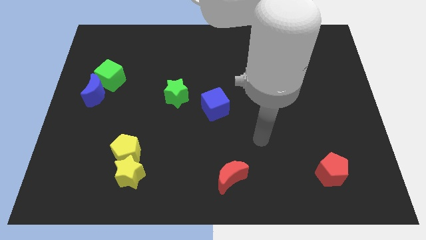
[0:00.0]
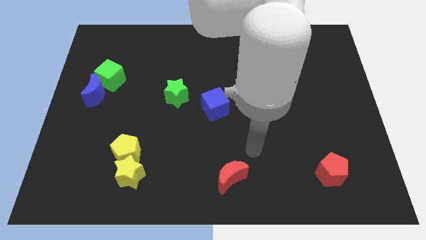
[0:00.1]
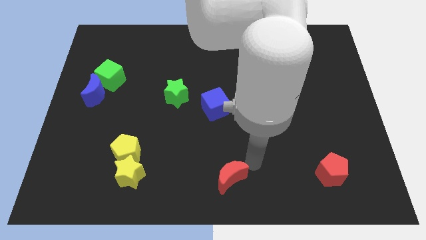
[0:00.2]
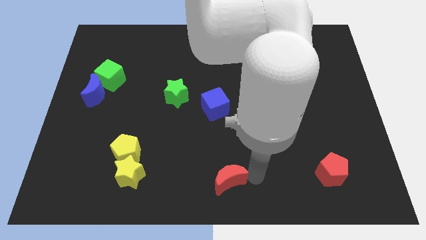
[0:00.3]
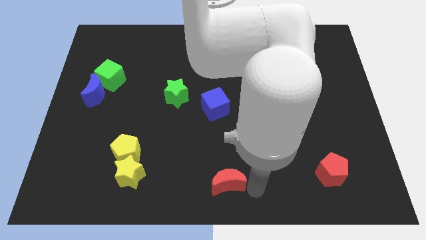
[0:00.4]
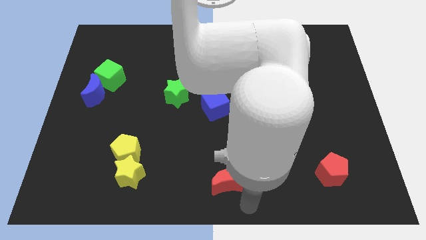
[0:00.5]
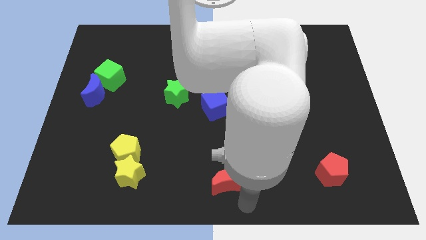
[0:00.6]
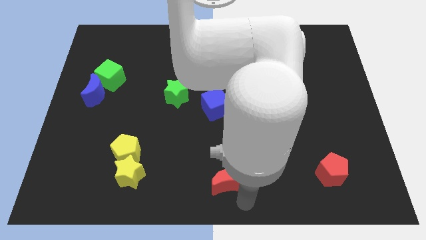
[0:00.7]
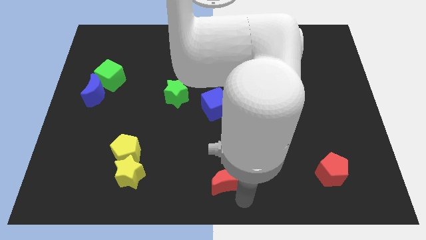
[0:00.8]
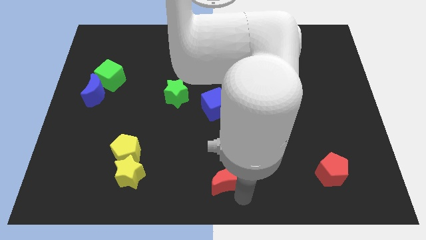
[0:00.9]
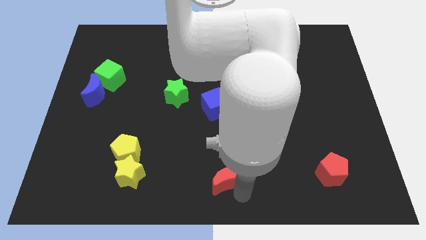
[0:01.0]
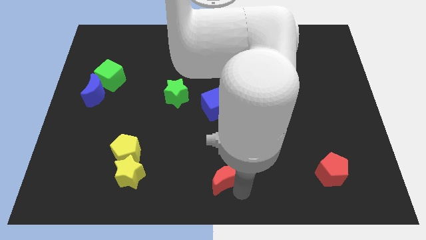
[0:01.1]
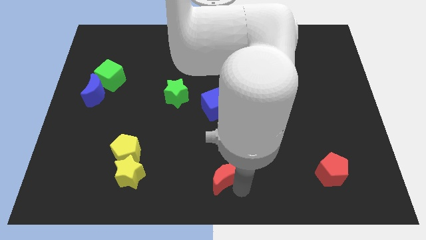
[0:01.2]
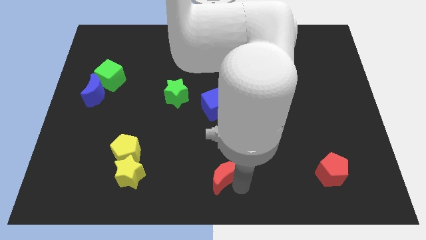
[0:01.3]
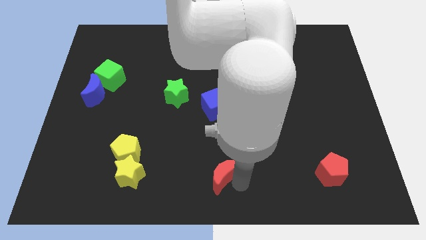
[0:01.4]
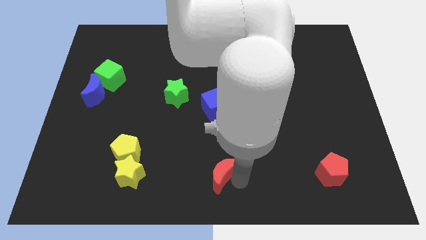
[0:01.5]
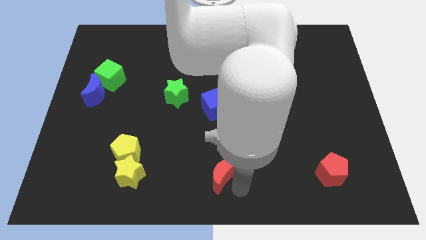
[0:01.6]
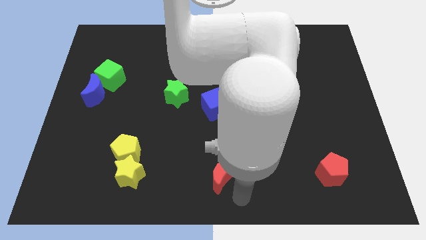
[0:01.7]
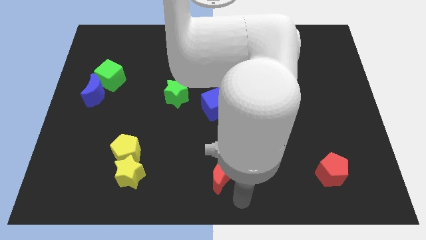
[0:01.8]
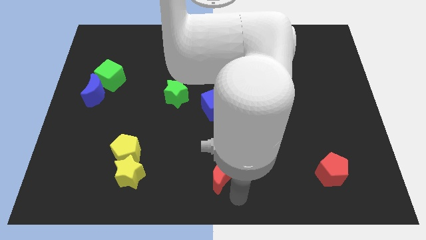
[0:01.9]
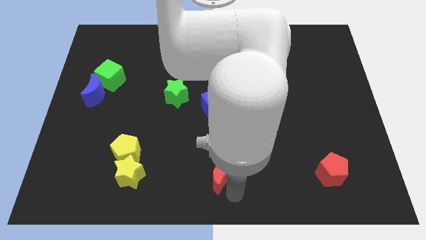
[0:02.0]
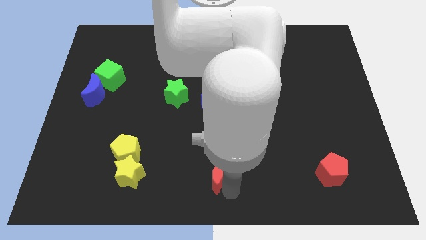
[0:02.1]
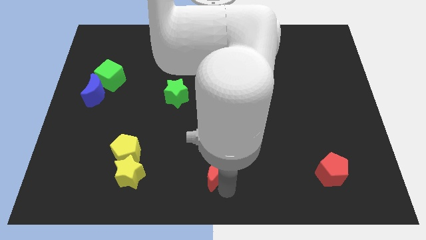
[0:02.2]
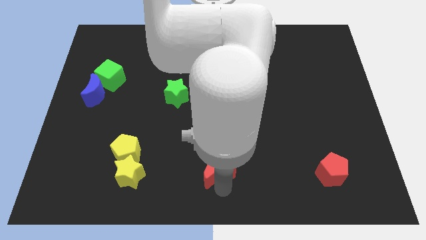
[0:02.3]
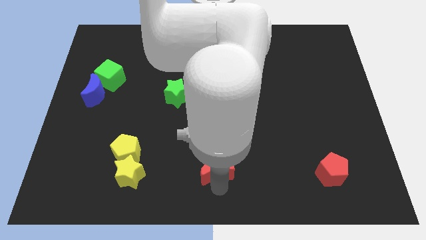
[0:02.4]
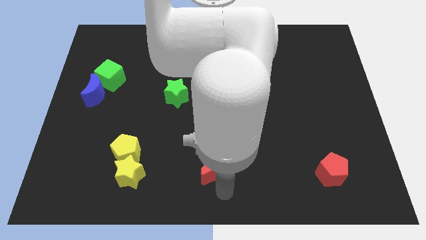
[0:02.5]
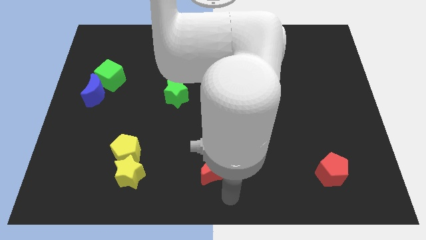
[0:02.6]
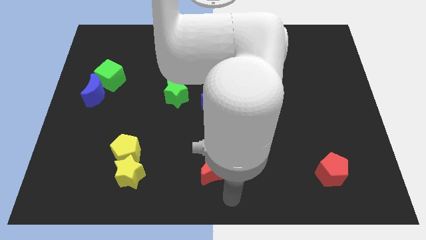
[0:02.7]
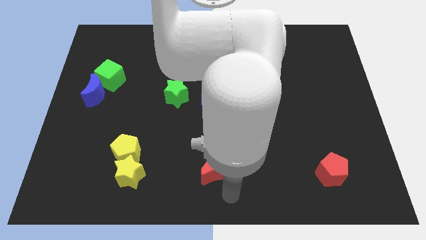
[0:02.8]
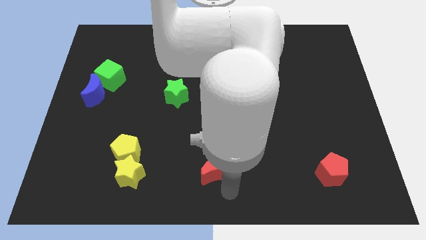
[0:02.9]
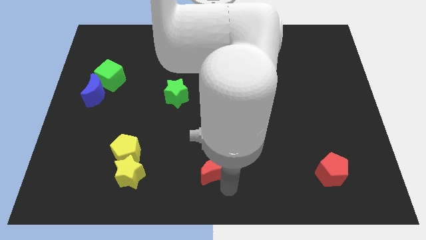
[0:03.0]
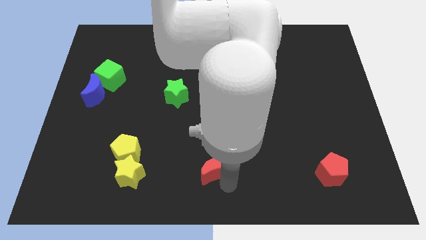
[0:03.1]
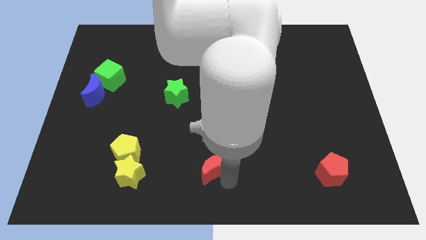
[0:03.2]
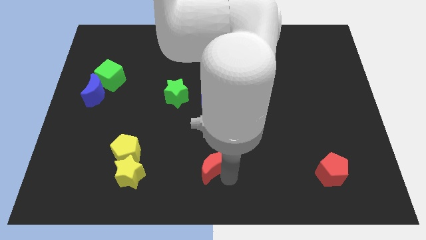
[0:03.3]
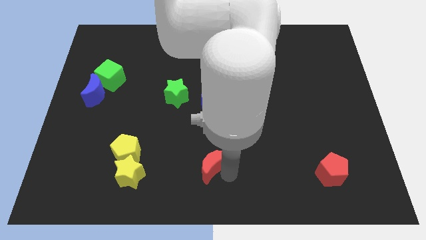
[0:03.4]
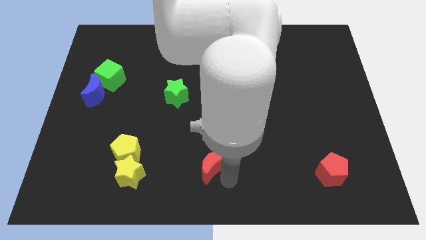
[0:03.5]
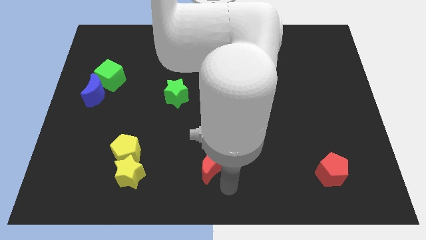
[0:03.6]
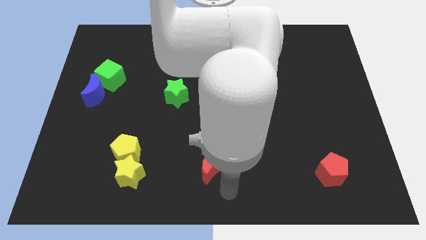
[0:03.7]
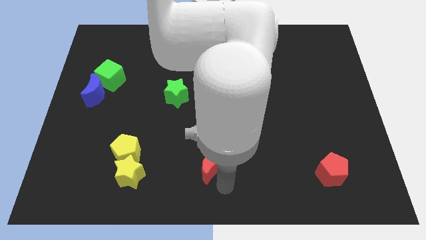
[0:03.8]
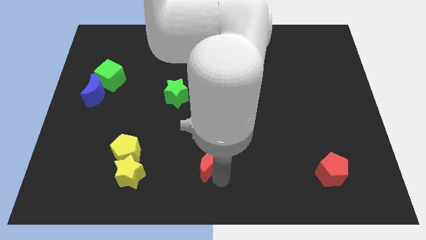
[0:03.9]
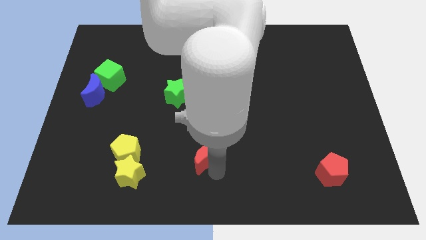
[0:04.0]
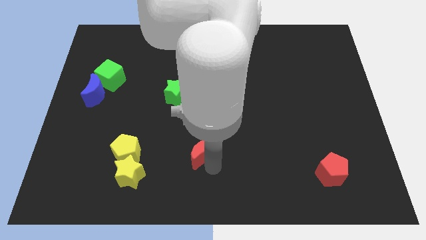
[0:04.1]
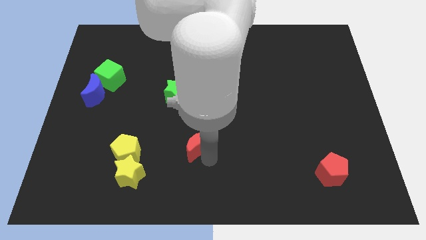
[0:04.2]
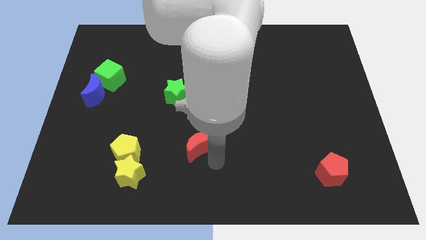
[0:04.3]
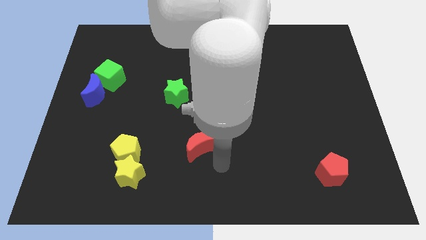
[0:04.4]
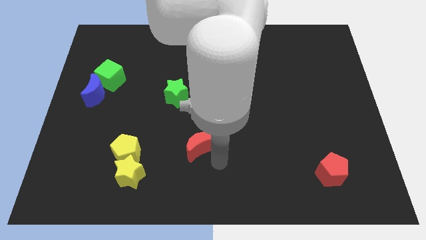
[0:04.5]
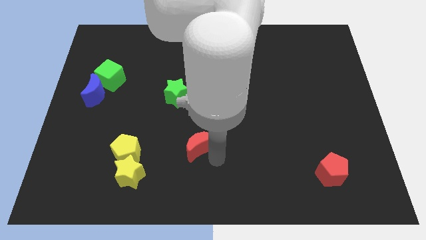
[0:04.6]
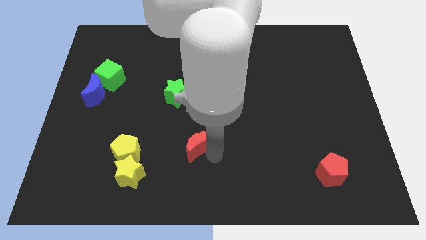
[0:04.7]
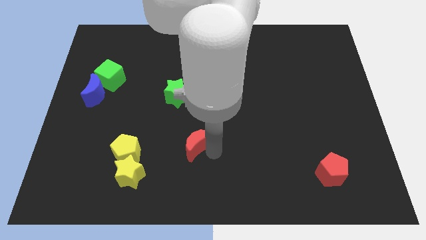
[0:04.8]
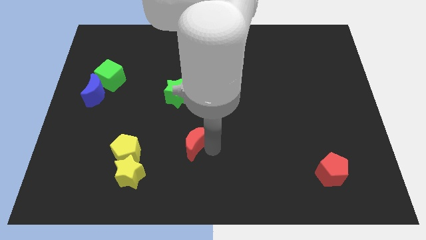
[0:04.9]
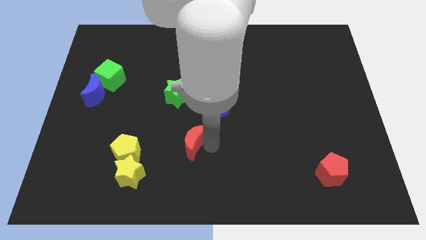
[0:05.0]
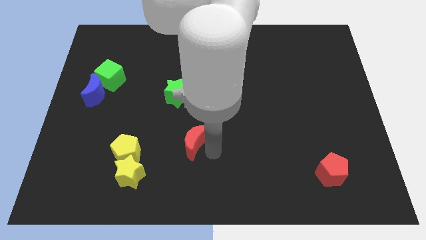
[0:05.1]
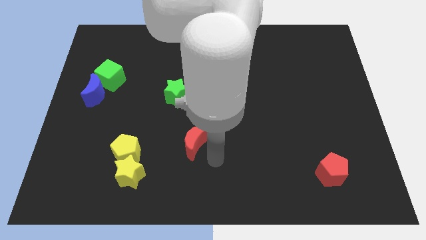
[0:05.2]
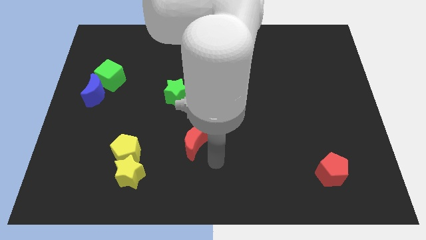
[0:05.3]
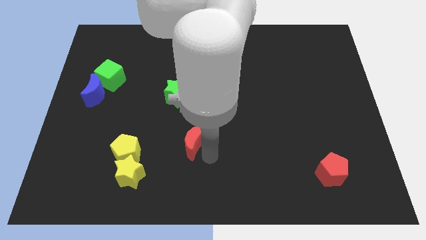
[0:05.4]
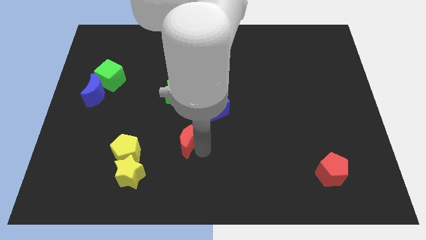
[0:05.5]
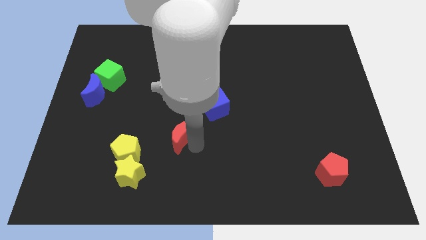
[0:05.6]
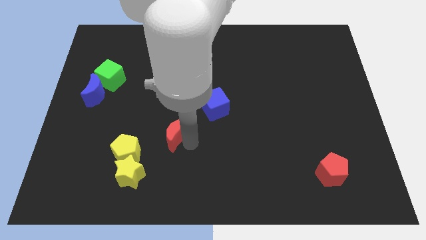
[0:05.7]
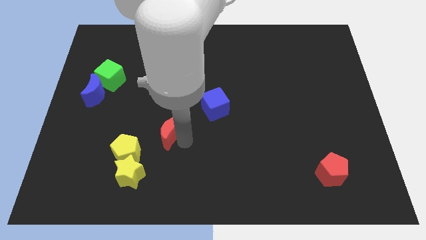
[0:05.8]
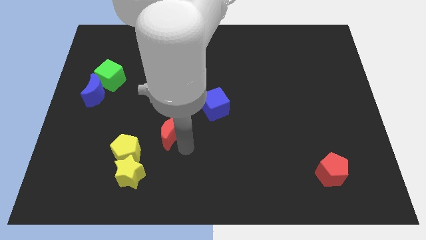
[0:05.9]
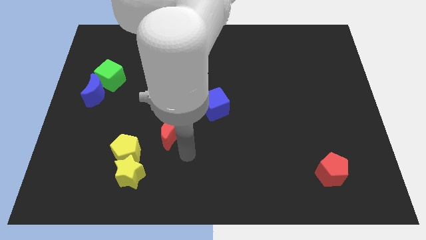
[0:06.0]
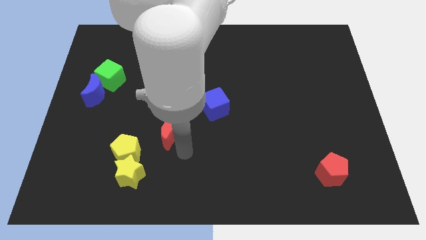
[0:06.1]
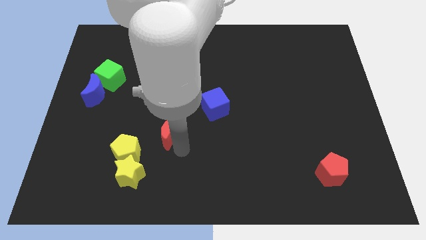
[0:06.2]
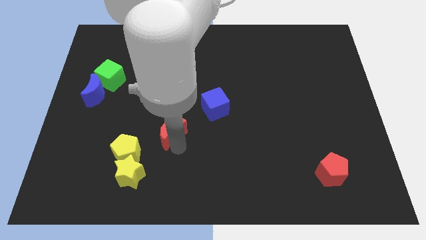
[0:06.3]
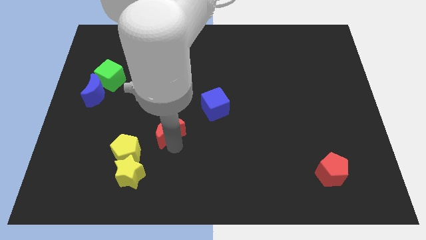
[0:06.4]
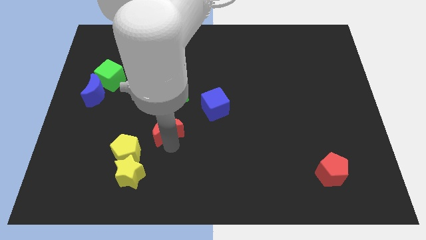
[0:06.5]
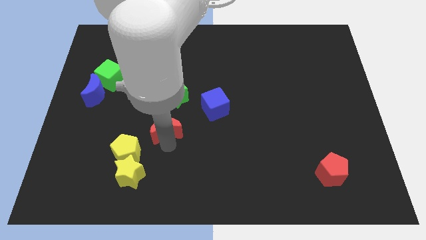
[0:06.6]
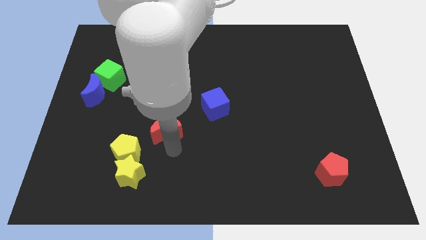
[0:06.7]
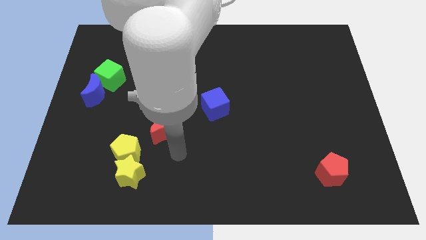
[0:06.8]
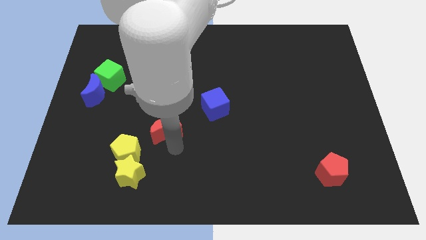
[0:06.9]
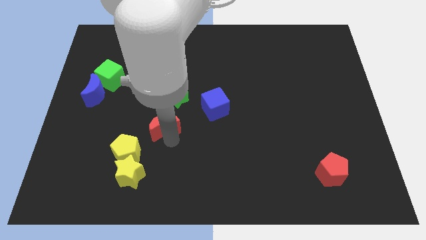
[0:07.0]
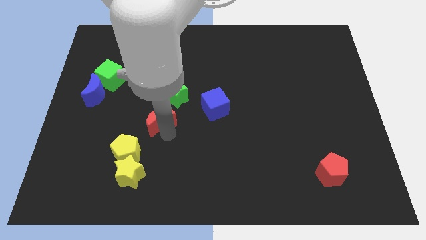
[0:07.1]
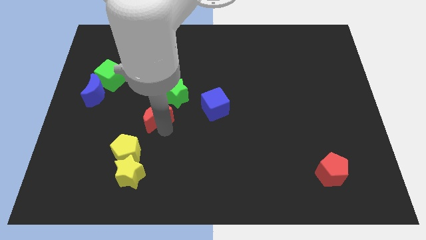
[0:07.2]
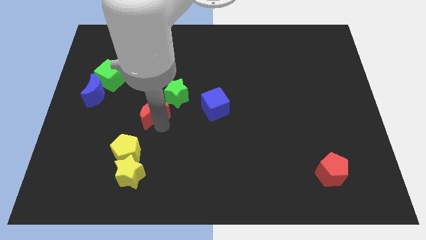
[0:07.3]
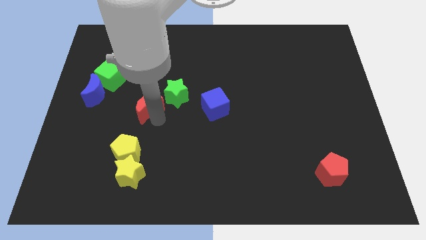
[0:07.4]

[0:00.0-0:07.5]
slide the red moon just right of the blue moon
